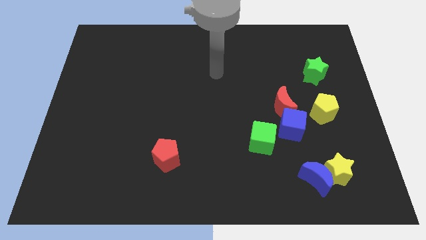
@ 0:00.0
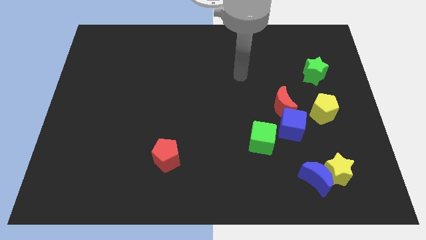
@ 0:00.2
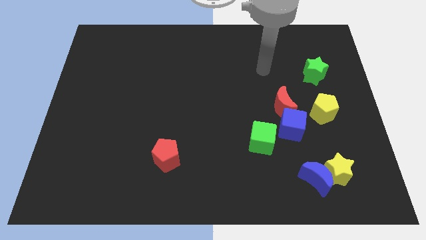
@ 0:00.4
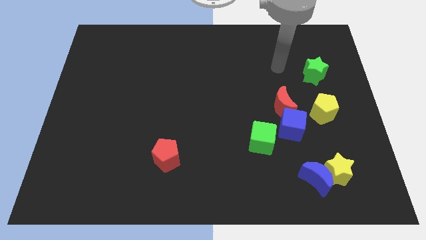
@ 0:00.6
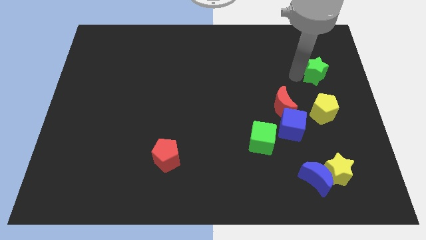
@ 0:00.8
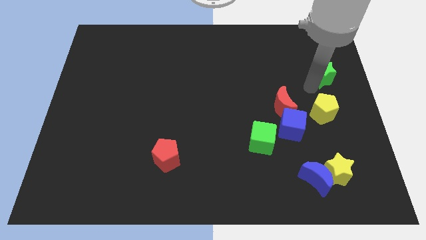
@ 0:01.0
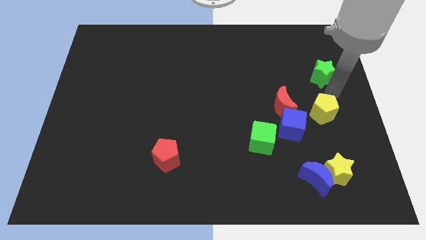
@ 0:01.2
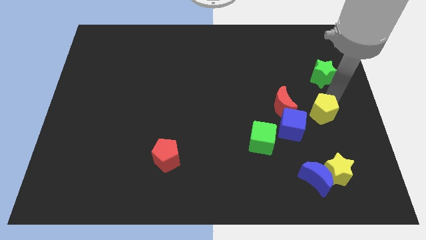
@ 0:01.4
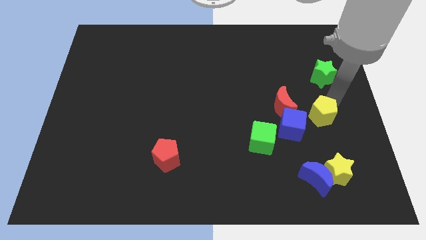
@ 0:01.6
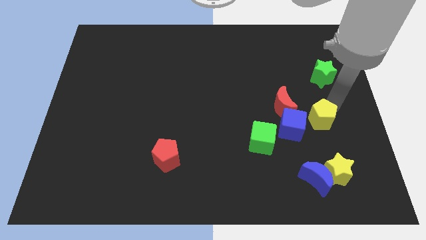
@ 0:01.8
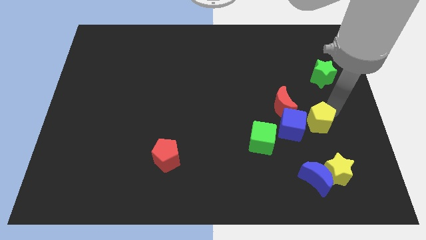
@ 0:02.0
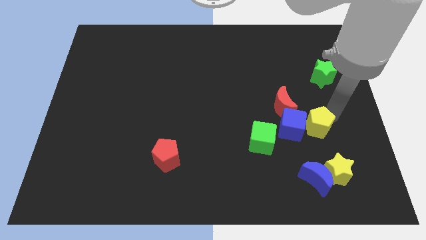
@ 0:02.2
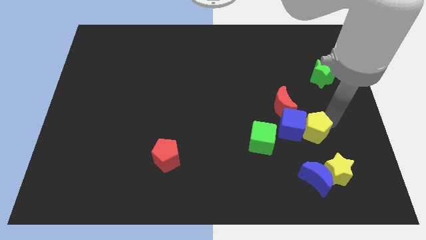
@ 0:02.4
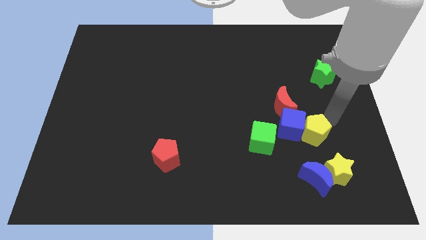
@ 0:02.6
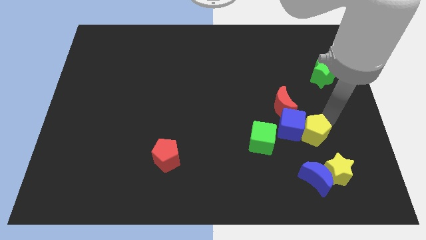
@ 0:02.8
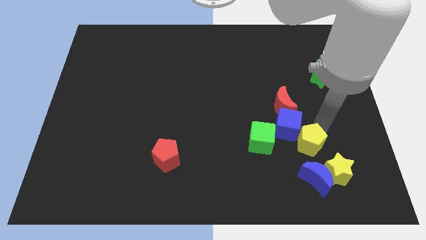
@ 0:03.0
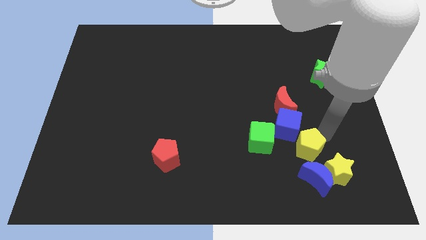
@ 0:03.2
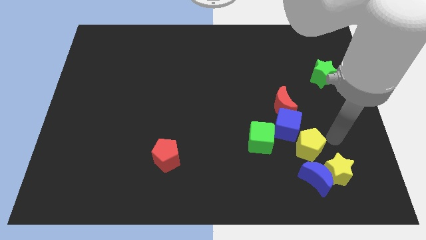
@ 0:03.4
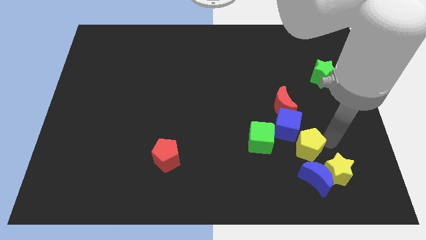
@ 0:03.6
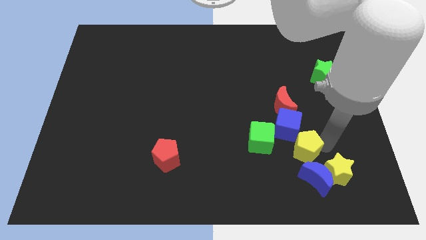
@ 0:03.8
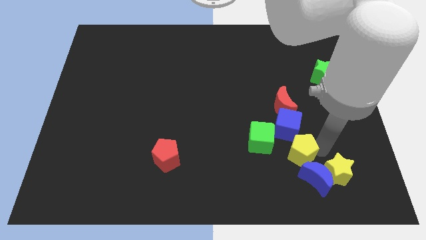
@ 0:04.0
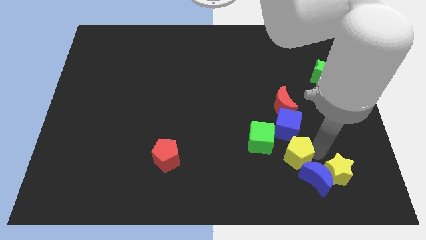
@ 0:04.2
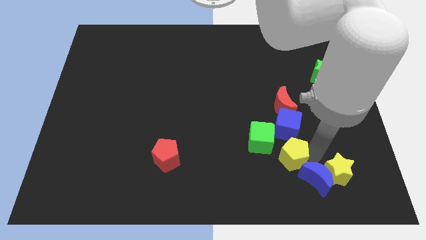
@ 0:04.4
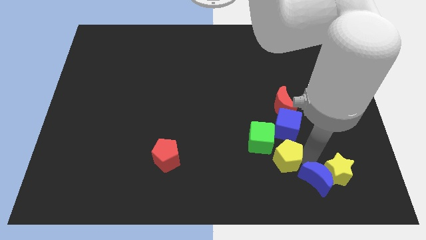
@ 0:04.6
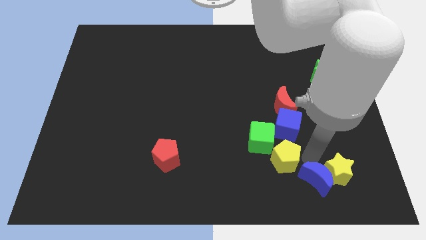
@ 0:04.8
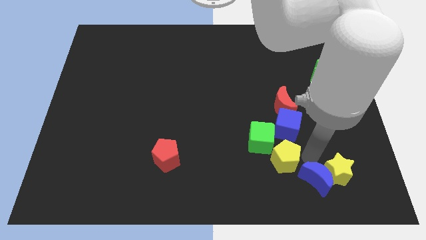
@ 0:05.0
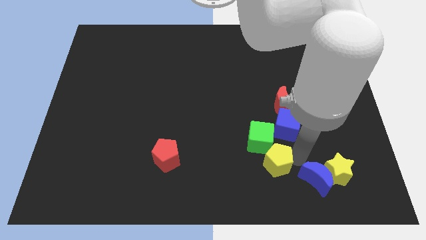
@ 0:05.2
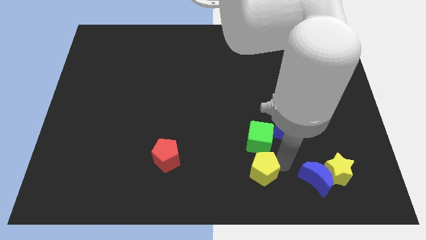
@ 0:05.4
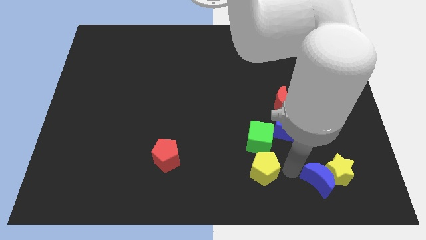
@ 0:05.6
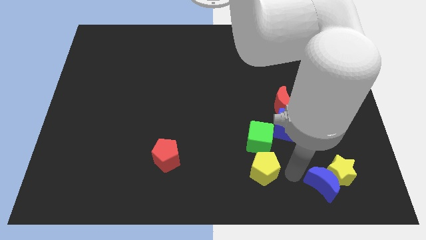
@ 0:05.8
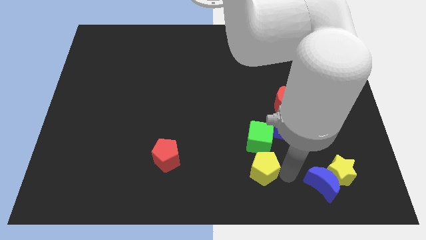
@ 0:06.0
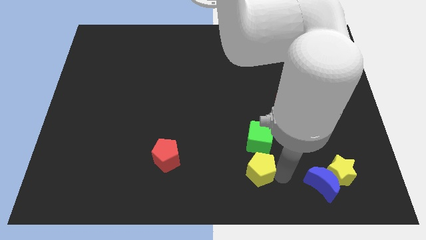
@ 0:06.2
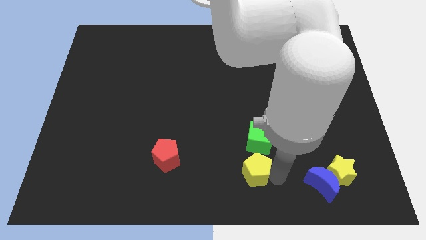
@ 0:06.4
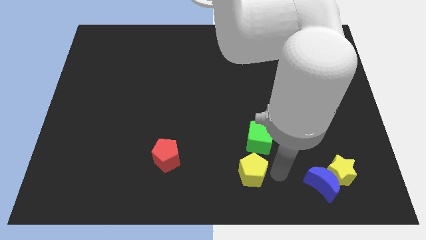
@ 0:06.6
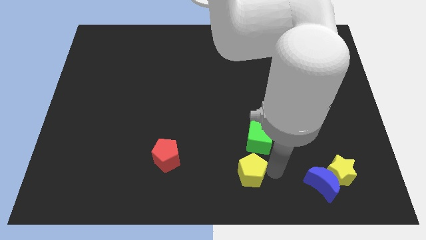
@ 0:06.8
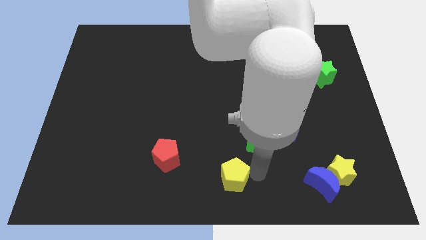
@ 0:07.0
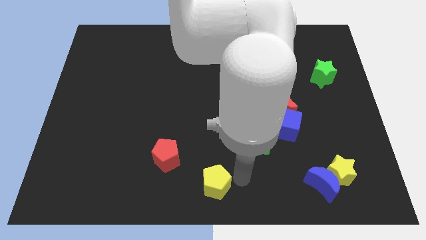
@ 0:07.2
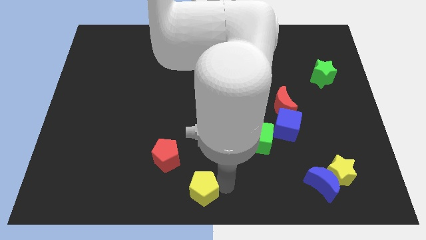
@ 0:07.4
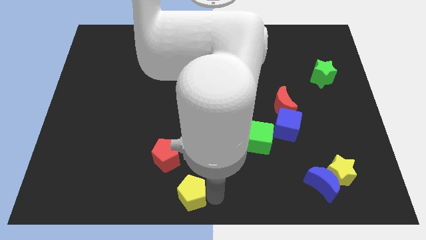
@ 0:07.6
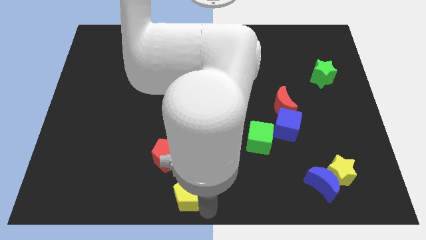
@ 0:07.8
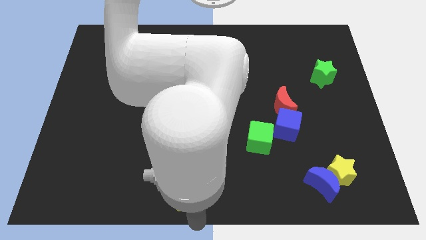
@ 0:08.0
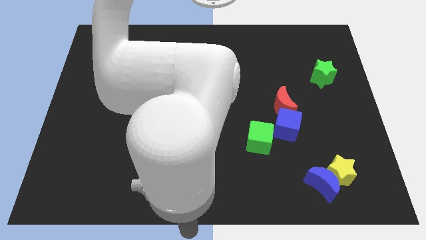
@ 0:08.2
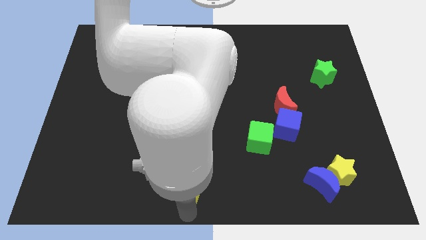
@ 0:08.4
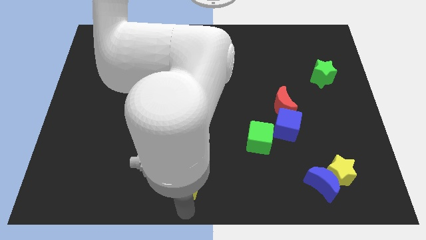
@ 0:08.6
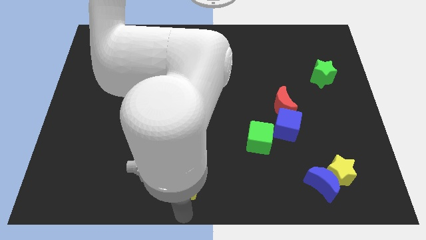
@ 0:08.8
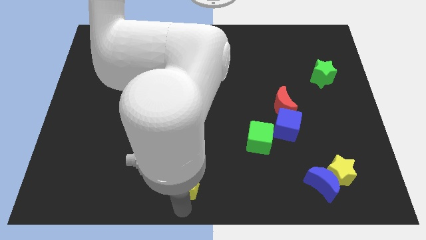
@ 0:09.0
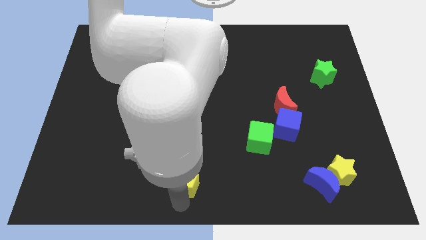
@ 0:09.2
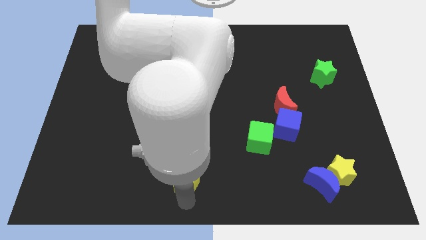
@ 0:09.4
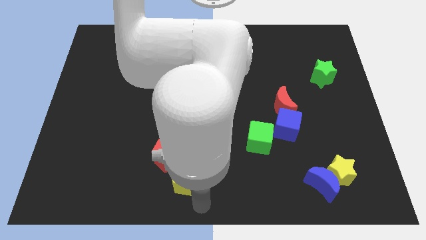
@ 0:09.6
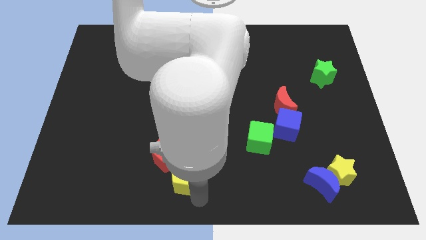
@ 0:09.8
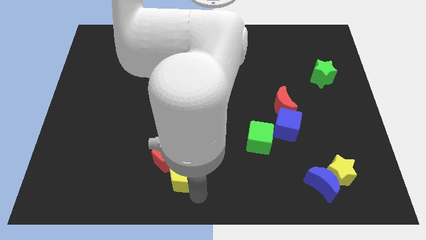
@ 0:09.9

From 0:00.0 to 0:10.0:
slide the yellow pentagon to the red pentagon

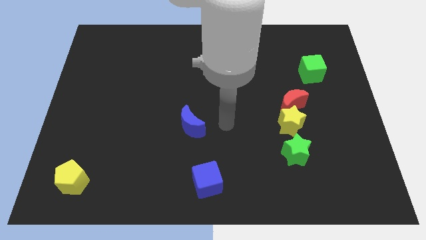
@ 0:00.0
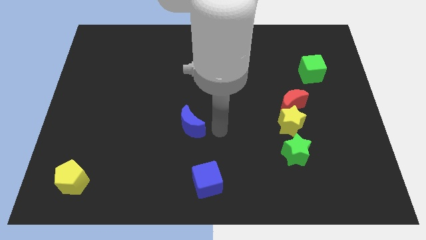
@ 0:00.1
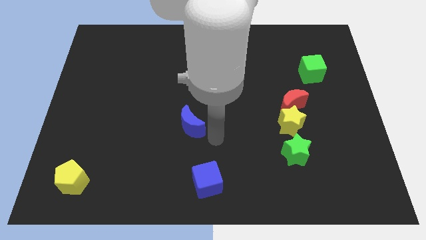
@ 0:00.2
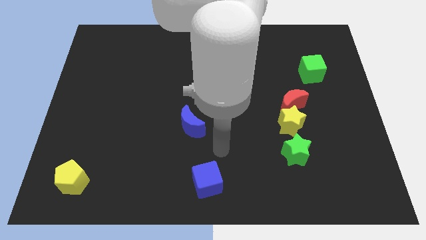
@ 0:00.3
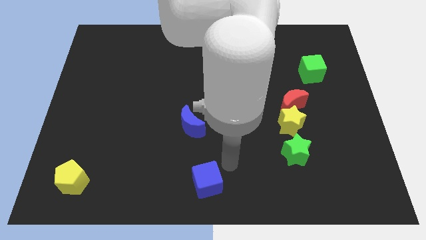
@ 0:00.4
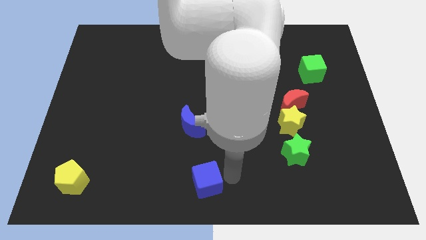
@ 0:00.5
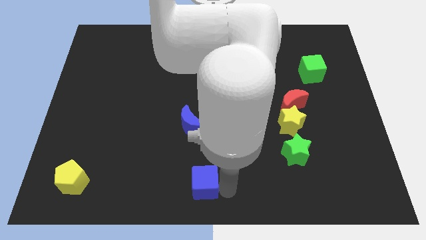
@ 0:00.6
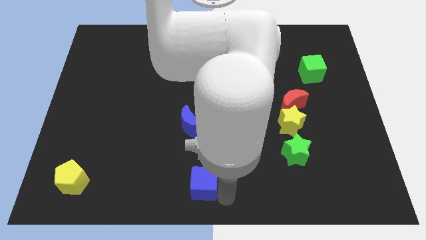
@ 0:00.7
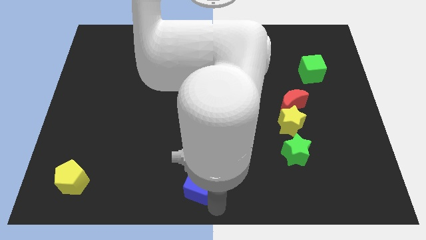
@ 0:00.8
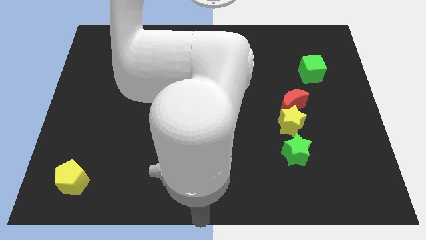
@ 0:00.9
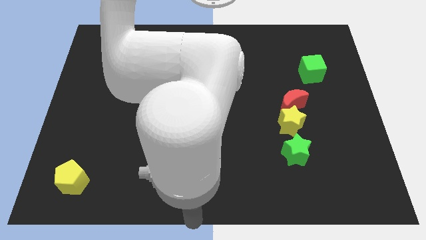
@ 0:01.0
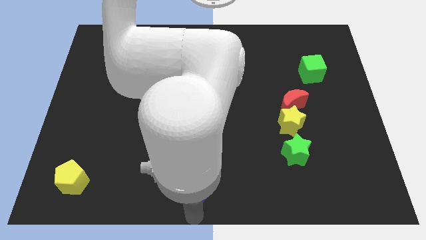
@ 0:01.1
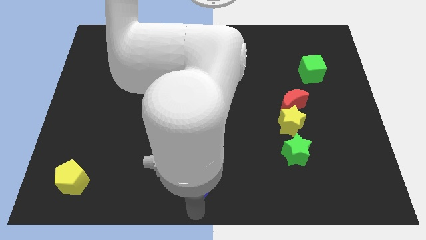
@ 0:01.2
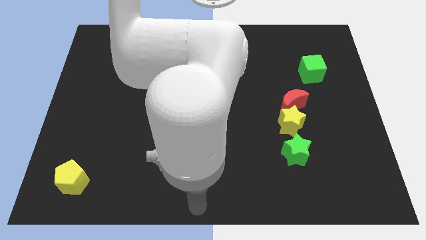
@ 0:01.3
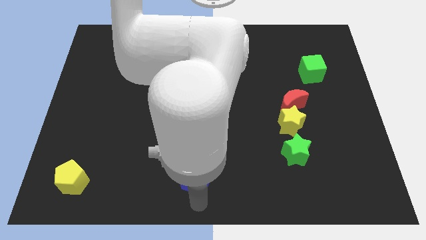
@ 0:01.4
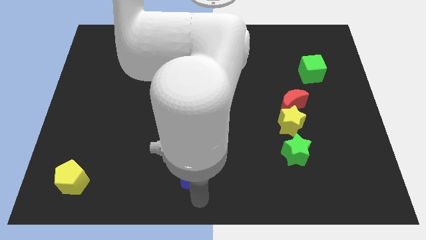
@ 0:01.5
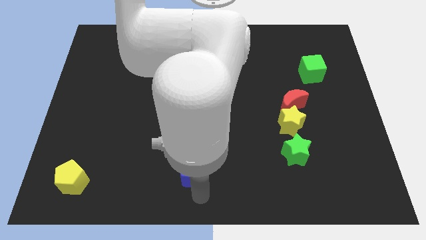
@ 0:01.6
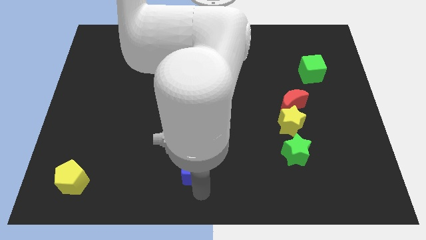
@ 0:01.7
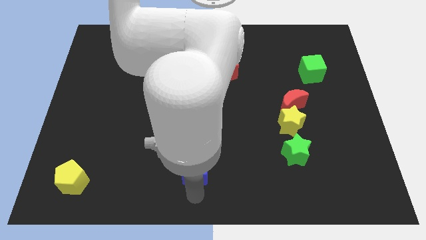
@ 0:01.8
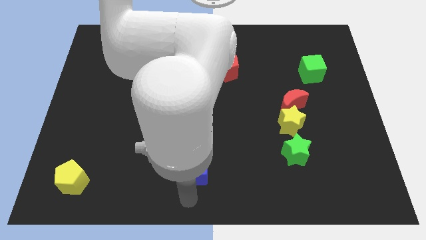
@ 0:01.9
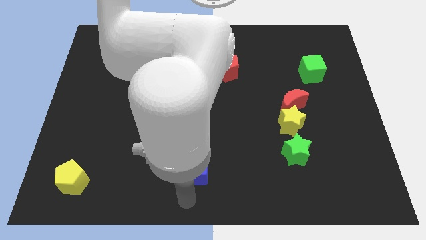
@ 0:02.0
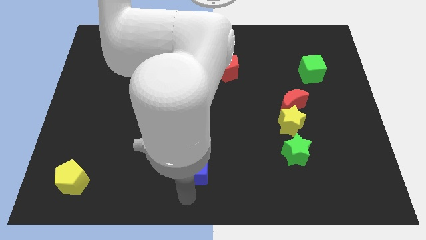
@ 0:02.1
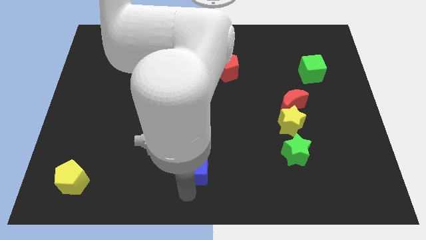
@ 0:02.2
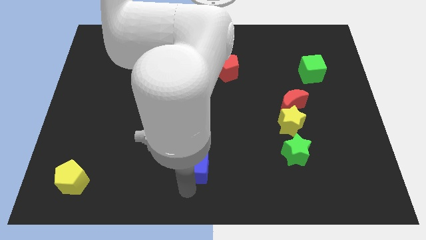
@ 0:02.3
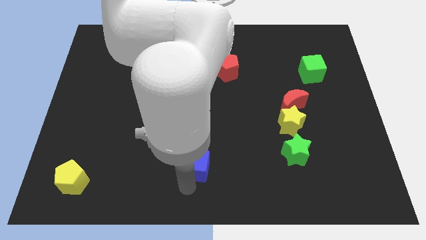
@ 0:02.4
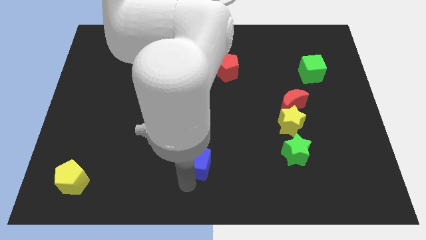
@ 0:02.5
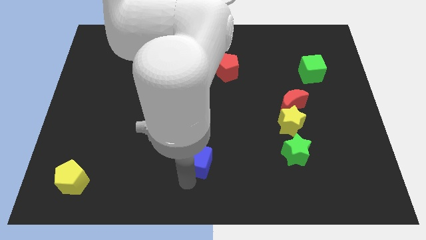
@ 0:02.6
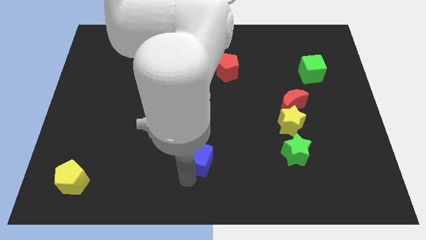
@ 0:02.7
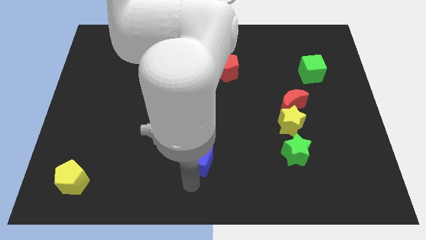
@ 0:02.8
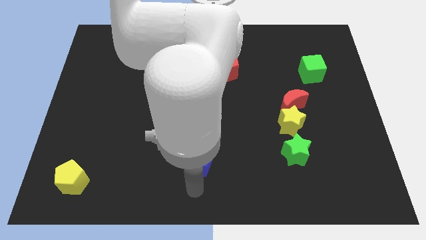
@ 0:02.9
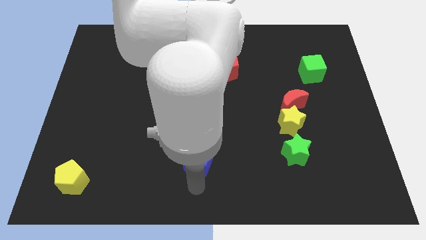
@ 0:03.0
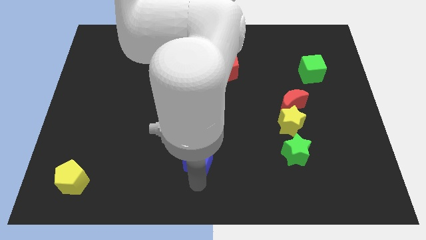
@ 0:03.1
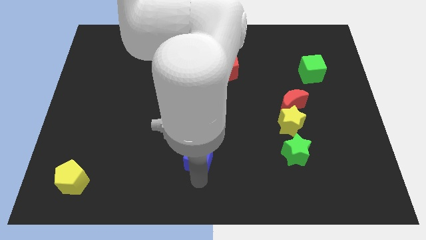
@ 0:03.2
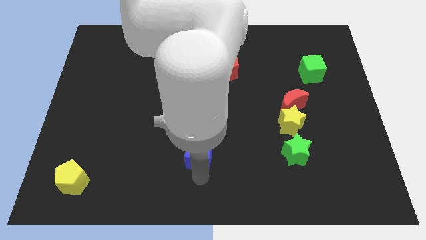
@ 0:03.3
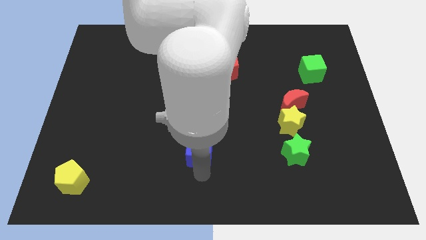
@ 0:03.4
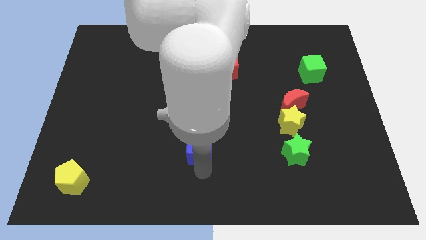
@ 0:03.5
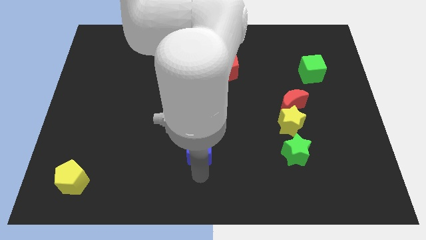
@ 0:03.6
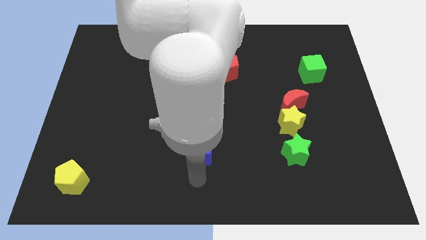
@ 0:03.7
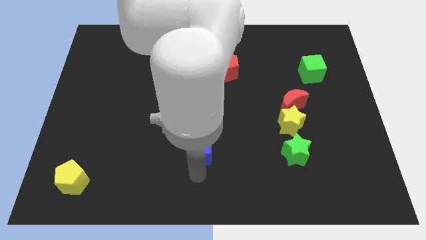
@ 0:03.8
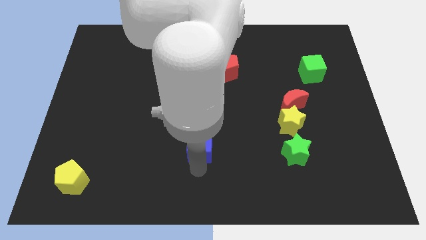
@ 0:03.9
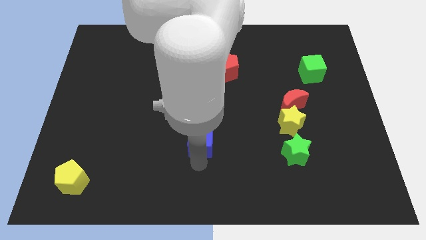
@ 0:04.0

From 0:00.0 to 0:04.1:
push the blue cube to the blue moon
